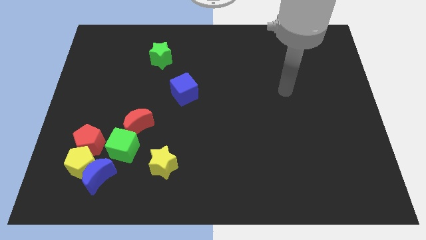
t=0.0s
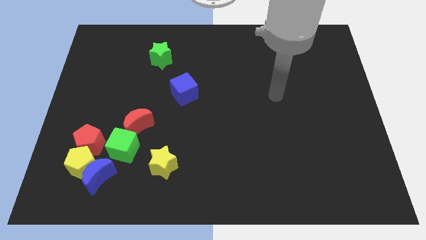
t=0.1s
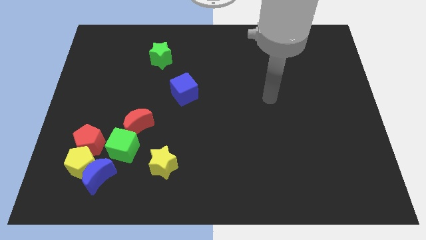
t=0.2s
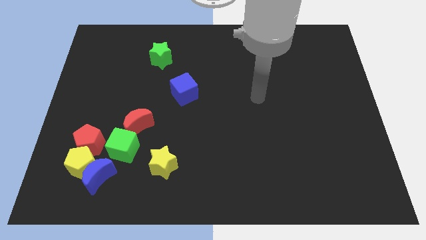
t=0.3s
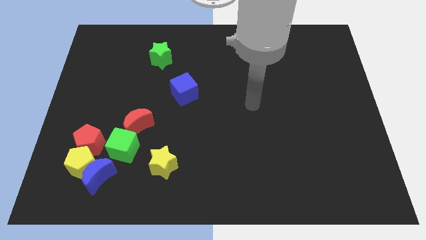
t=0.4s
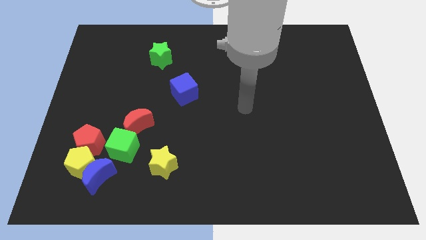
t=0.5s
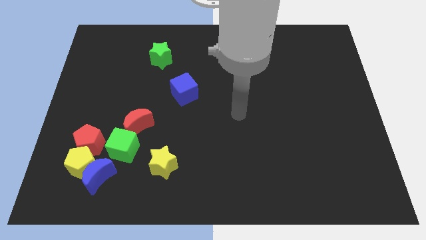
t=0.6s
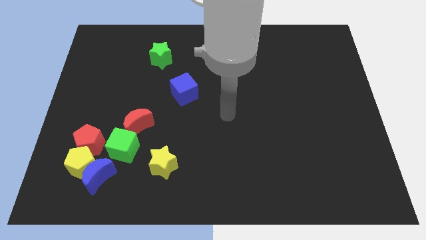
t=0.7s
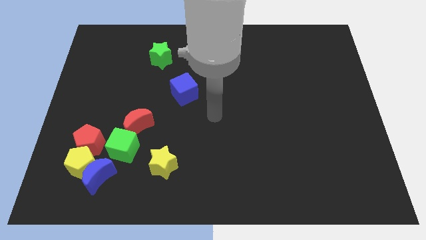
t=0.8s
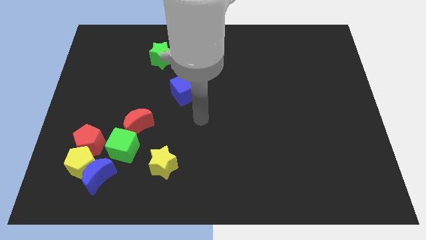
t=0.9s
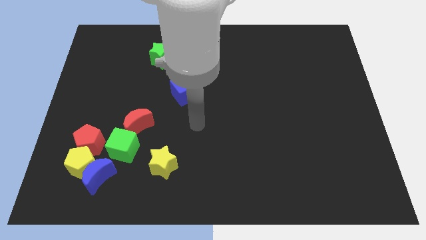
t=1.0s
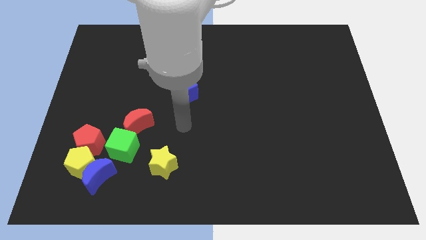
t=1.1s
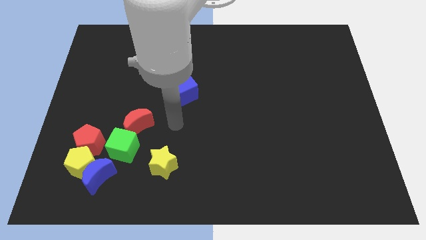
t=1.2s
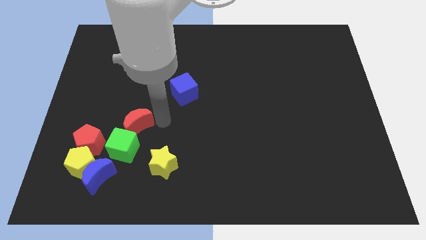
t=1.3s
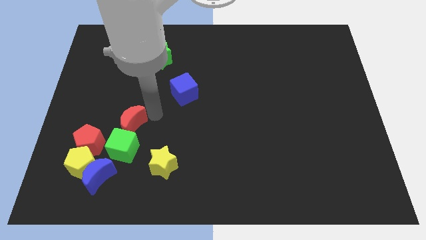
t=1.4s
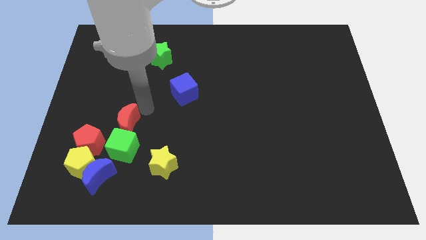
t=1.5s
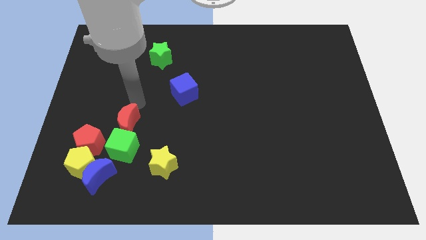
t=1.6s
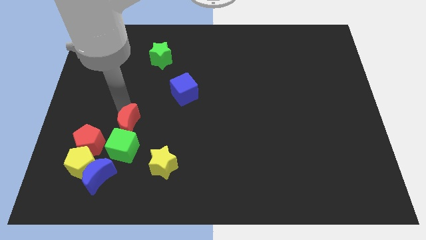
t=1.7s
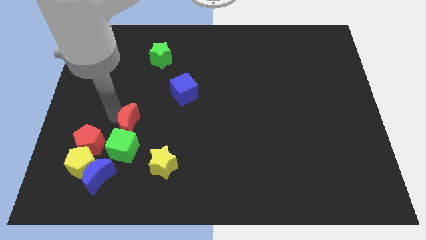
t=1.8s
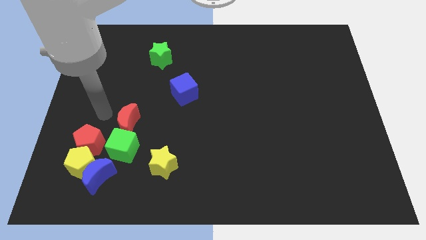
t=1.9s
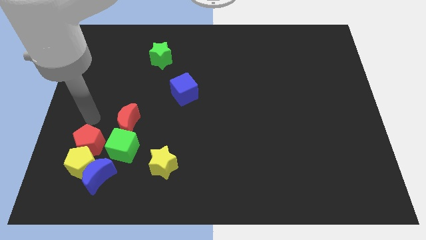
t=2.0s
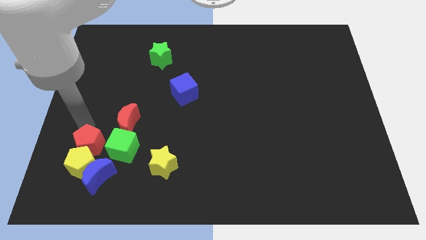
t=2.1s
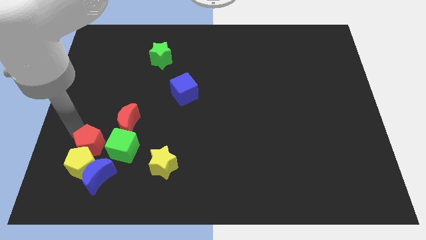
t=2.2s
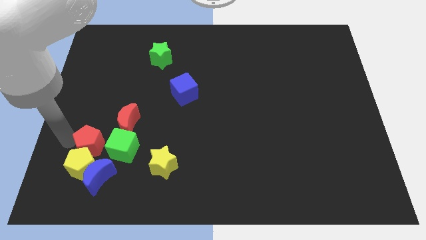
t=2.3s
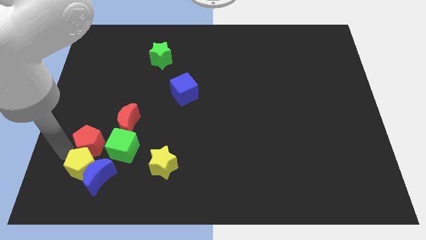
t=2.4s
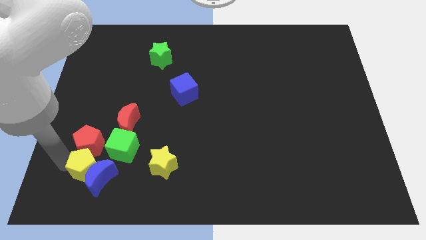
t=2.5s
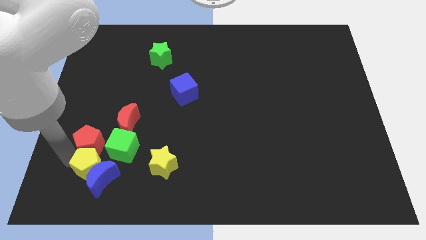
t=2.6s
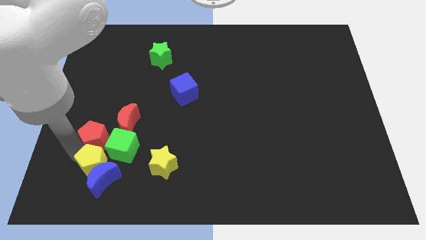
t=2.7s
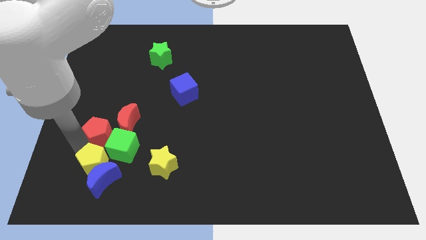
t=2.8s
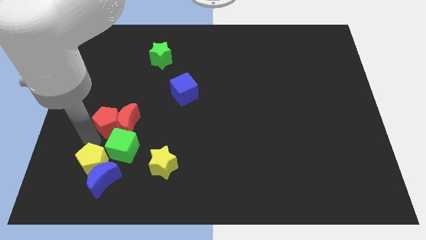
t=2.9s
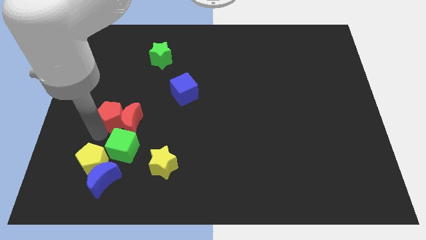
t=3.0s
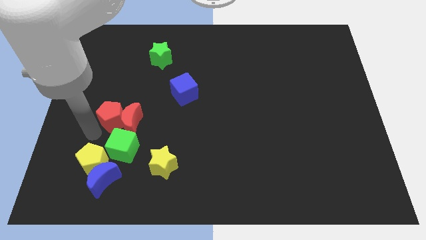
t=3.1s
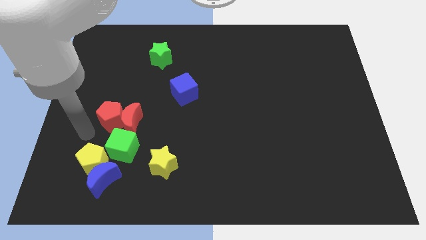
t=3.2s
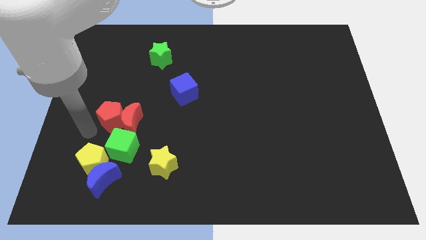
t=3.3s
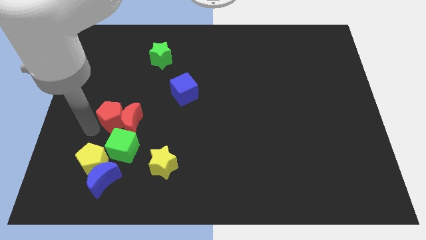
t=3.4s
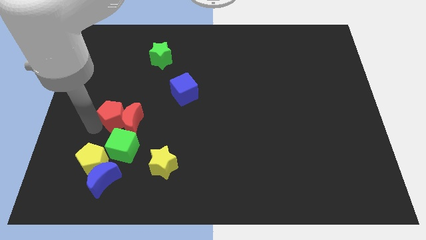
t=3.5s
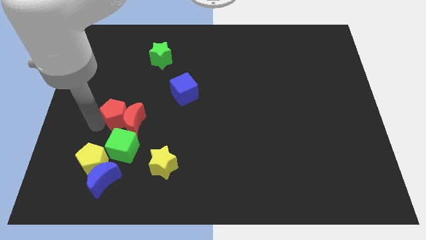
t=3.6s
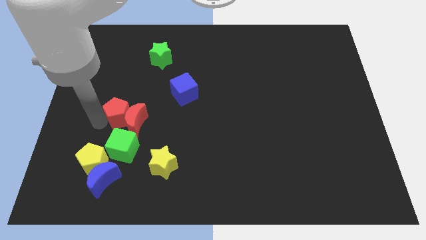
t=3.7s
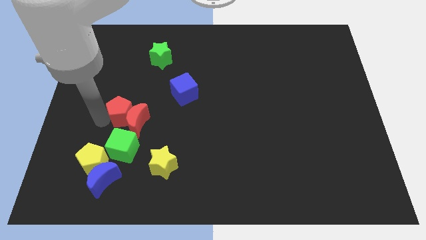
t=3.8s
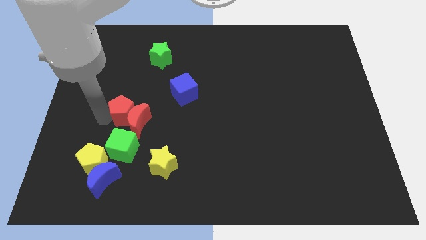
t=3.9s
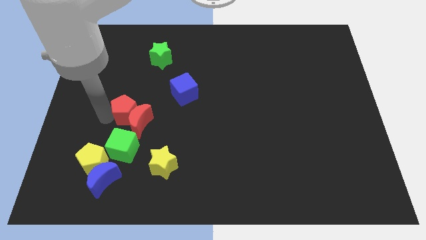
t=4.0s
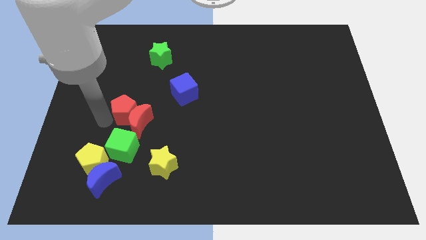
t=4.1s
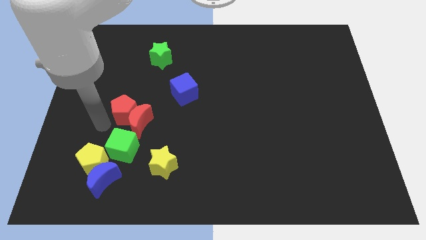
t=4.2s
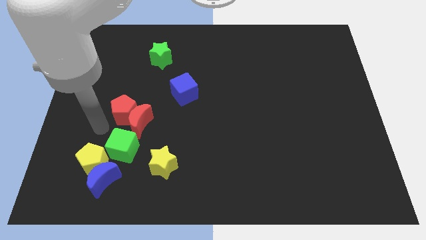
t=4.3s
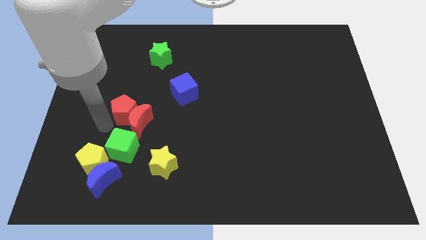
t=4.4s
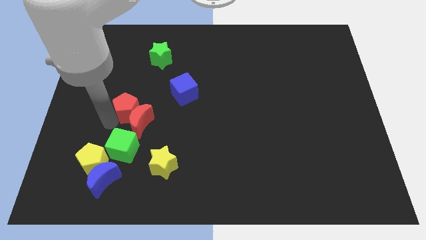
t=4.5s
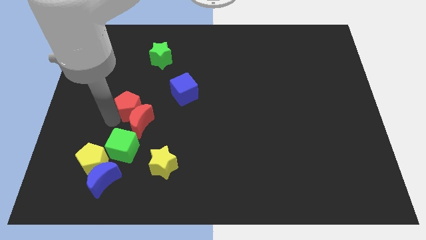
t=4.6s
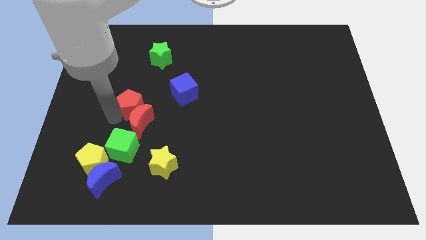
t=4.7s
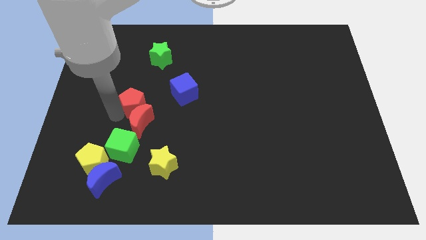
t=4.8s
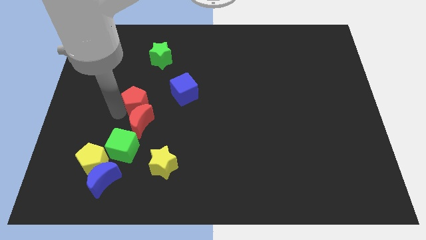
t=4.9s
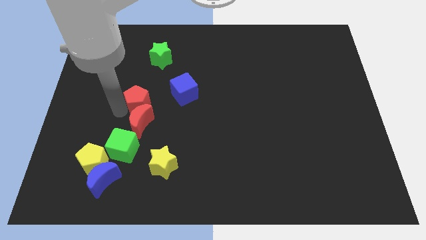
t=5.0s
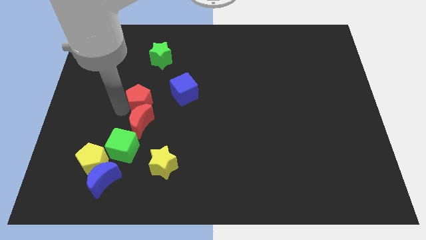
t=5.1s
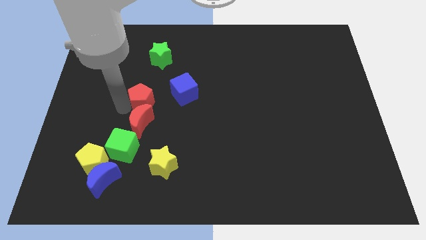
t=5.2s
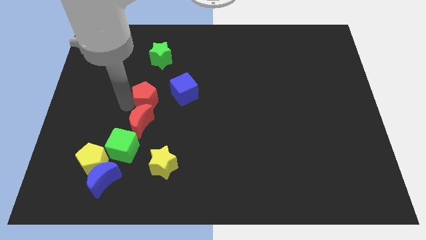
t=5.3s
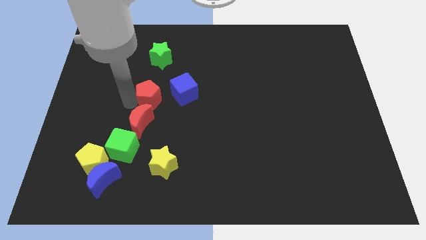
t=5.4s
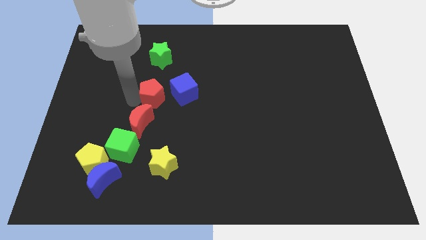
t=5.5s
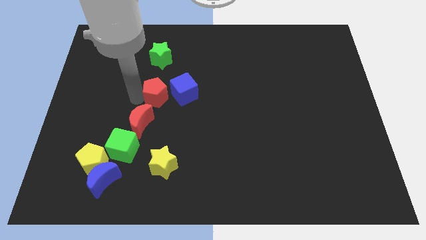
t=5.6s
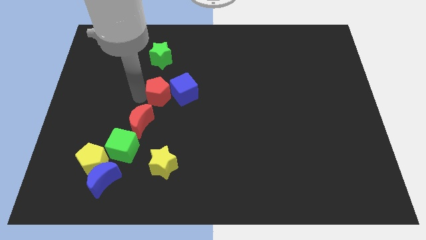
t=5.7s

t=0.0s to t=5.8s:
slide the red pentagon close to the blue cube

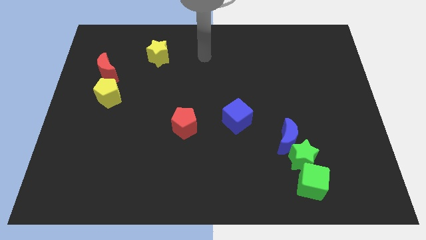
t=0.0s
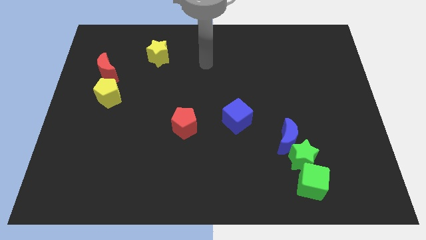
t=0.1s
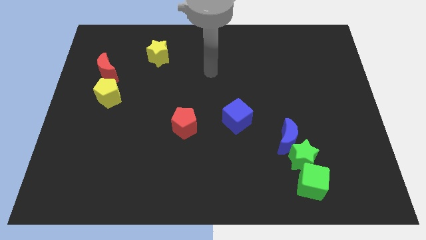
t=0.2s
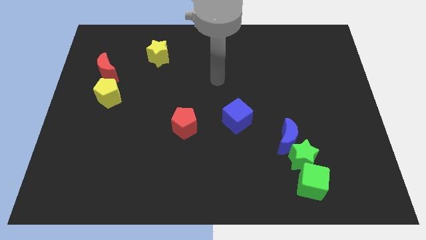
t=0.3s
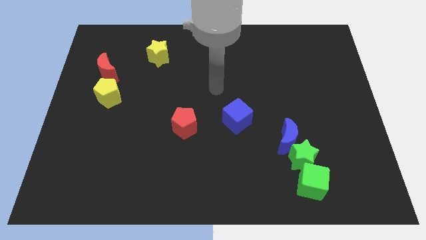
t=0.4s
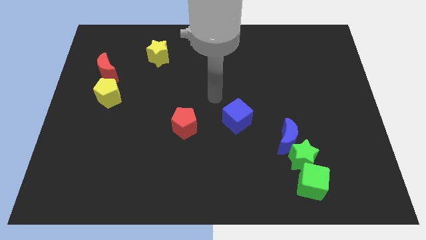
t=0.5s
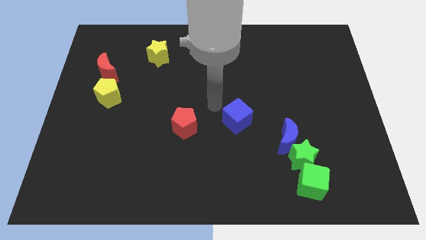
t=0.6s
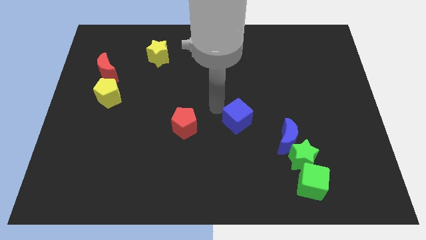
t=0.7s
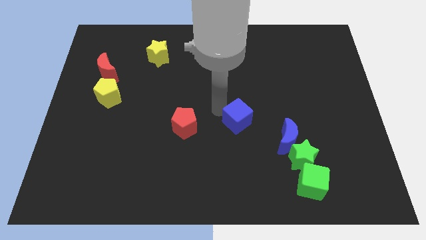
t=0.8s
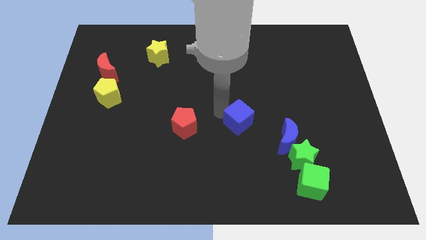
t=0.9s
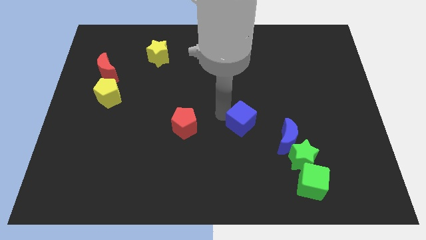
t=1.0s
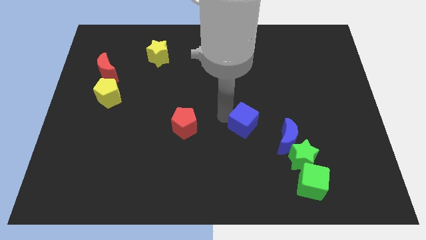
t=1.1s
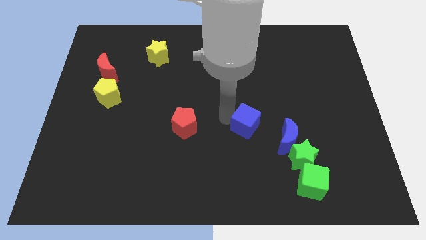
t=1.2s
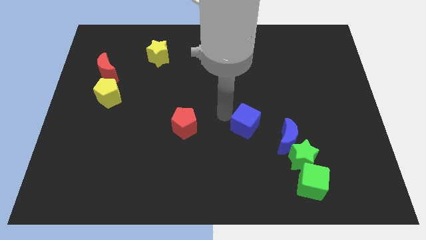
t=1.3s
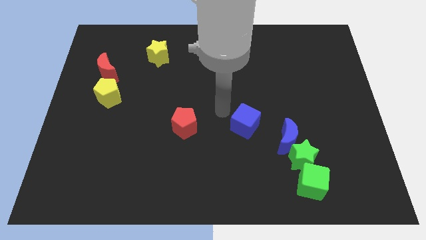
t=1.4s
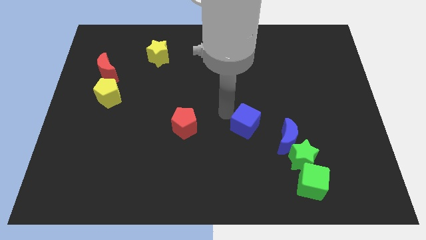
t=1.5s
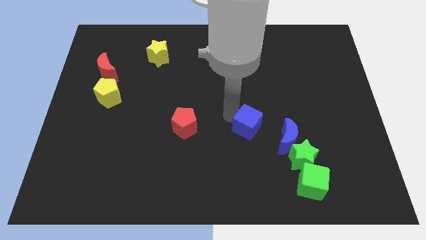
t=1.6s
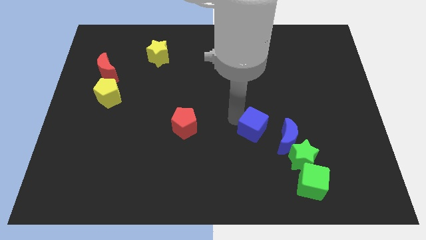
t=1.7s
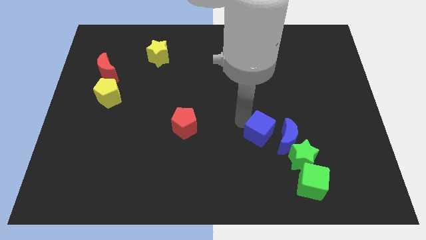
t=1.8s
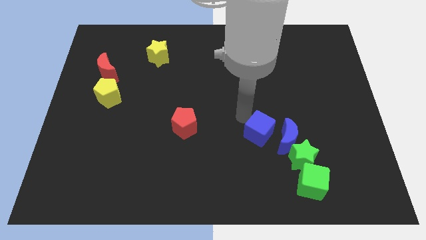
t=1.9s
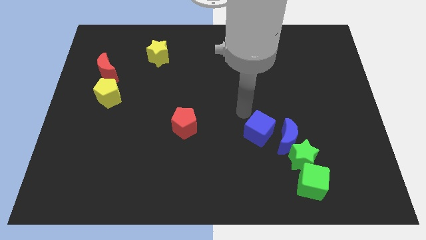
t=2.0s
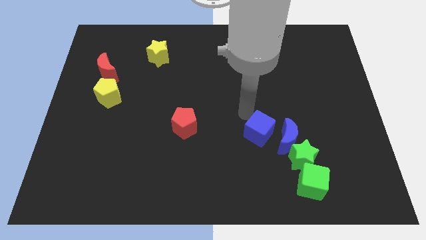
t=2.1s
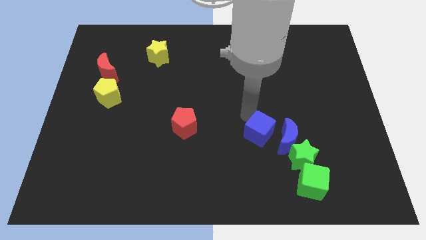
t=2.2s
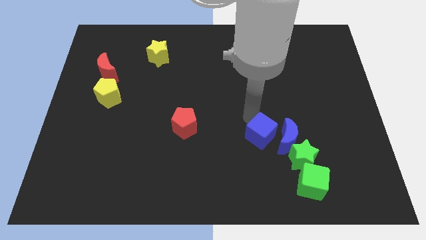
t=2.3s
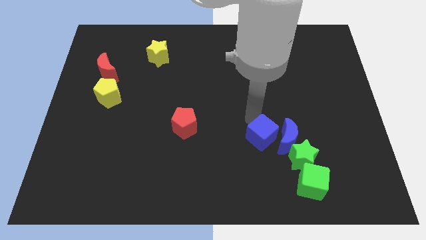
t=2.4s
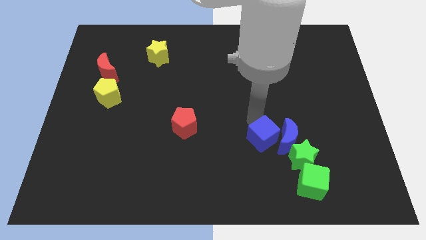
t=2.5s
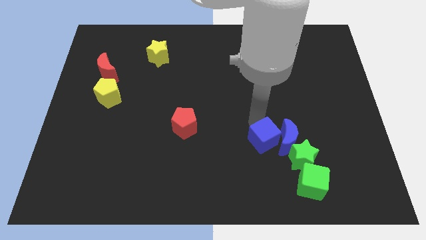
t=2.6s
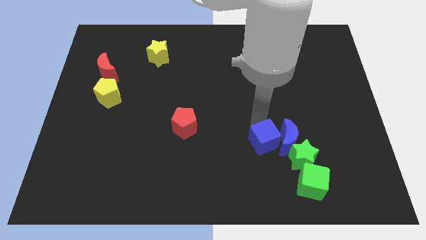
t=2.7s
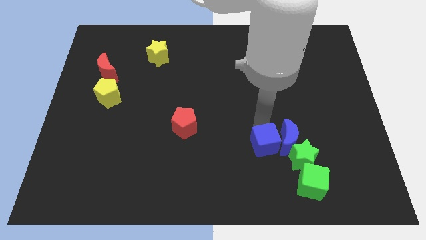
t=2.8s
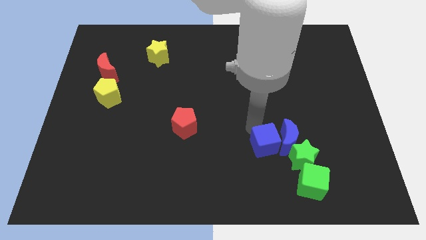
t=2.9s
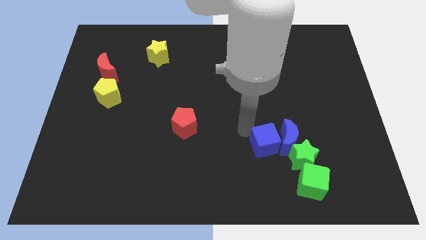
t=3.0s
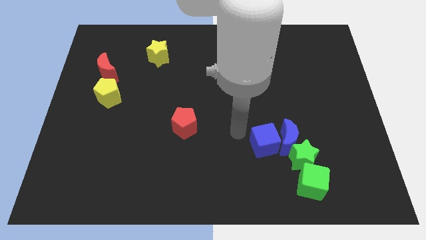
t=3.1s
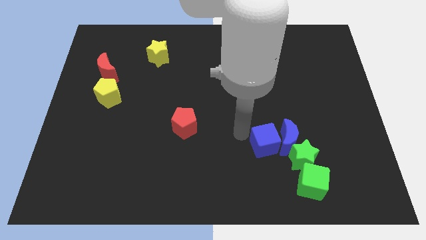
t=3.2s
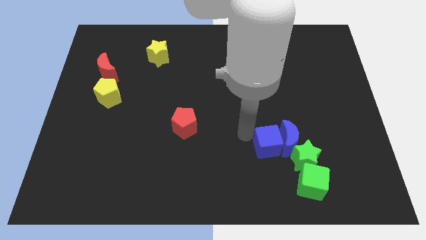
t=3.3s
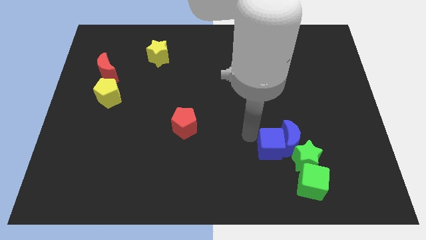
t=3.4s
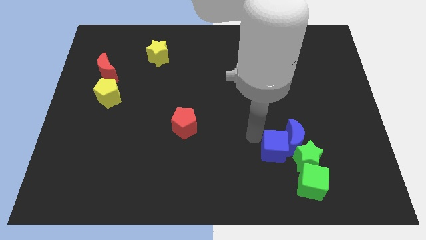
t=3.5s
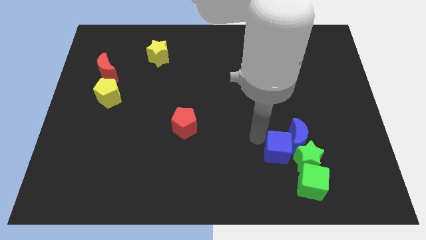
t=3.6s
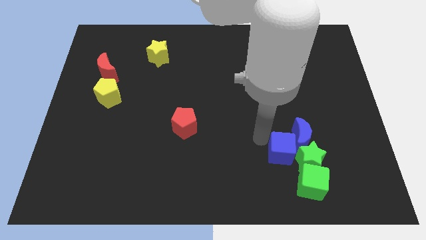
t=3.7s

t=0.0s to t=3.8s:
move the blue cube next to the green star
